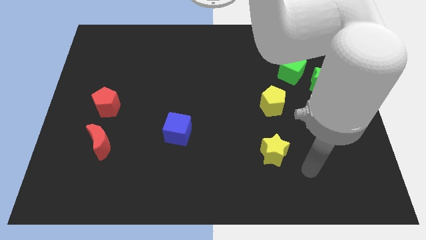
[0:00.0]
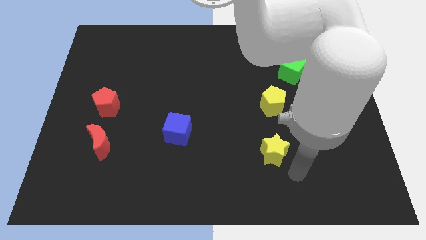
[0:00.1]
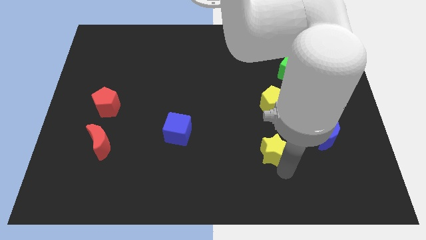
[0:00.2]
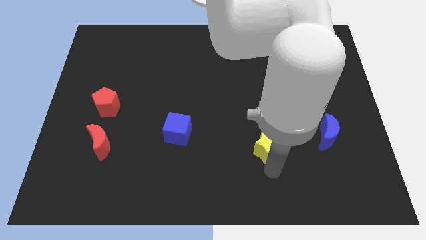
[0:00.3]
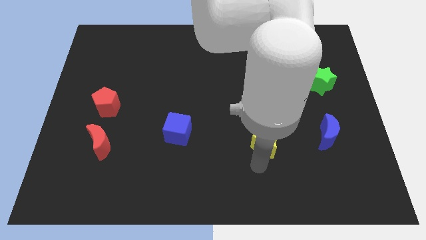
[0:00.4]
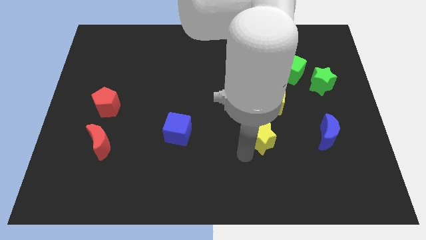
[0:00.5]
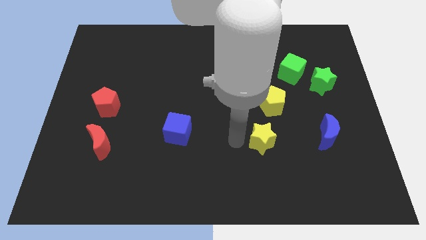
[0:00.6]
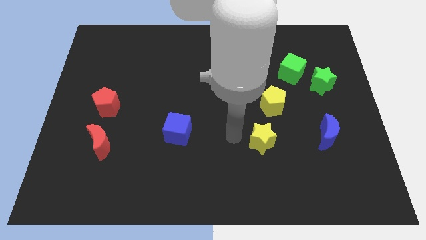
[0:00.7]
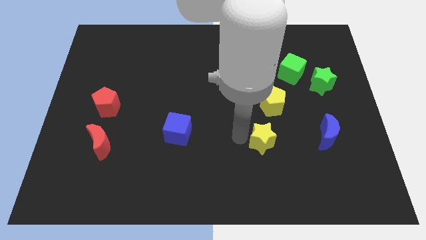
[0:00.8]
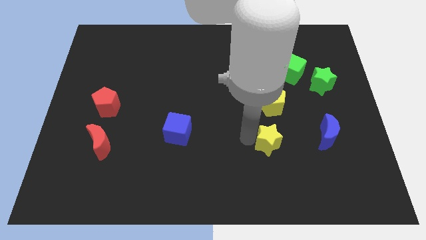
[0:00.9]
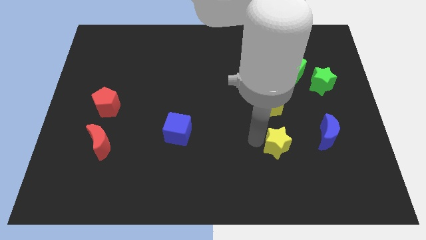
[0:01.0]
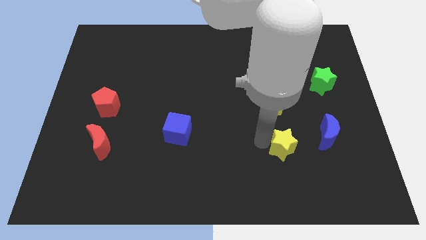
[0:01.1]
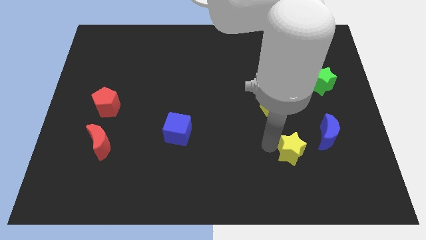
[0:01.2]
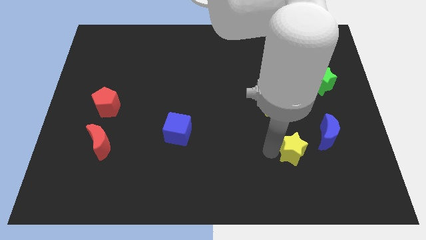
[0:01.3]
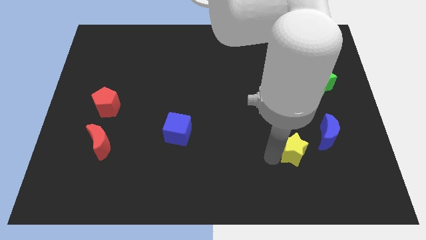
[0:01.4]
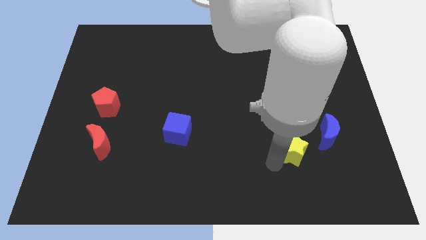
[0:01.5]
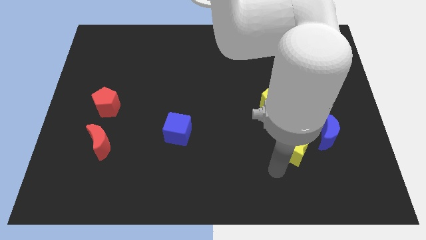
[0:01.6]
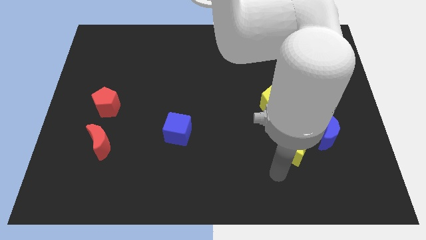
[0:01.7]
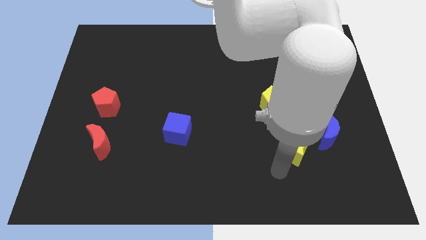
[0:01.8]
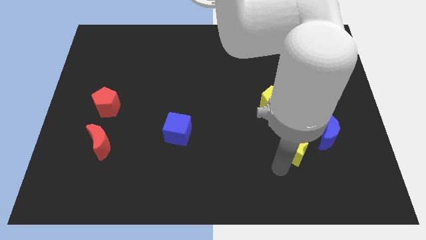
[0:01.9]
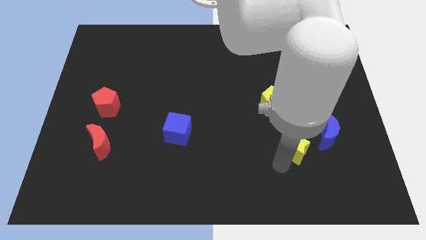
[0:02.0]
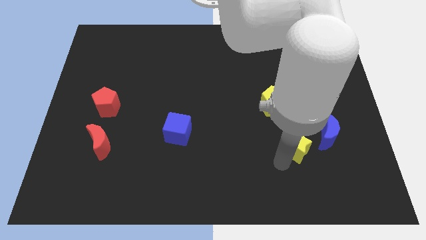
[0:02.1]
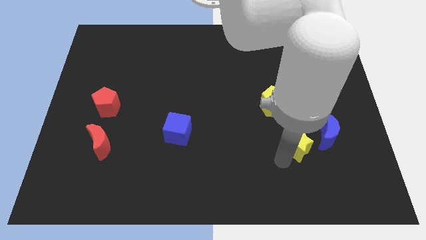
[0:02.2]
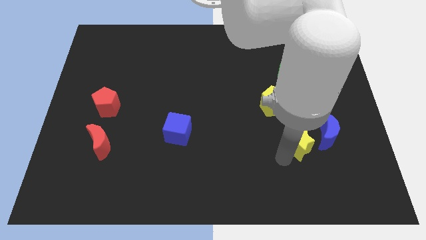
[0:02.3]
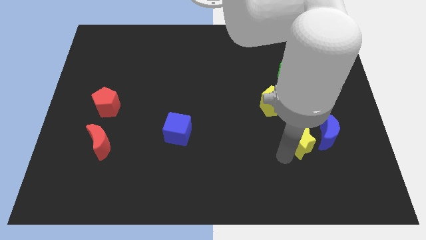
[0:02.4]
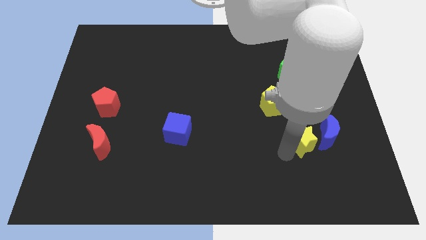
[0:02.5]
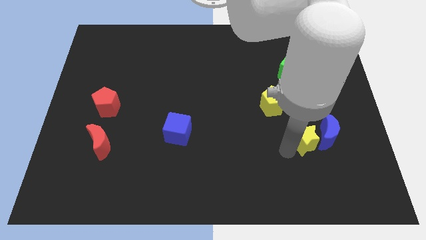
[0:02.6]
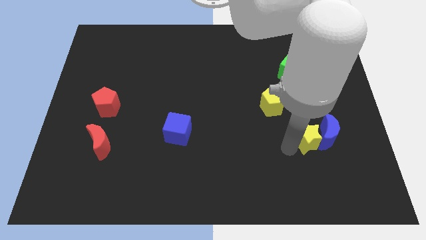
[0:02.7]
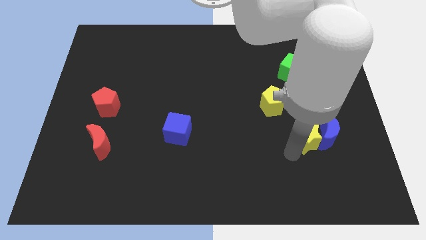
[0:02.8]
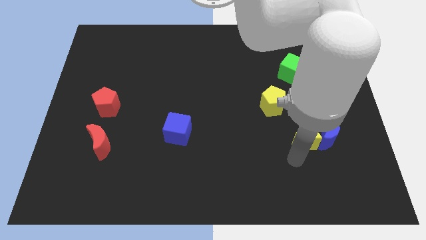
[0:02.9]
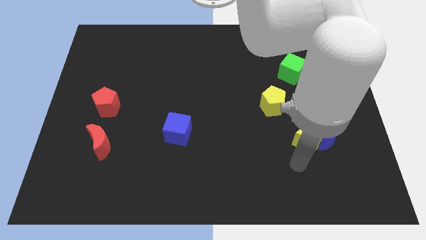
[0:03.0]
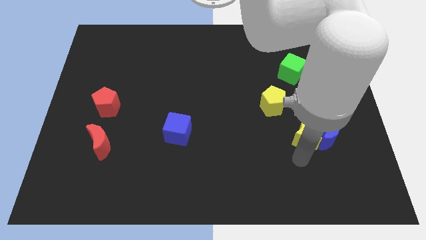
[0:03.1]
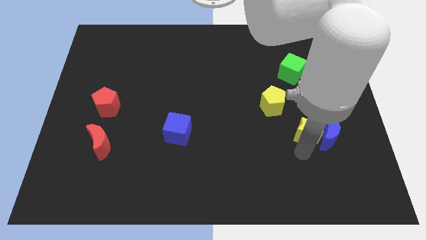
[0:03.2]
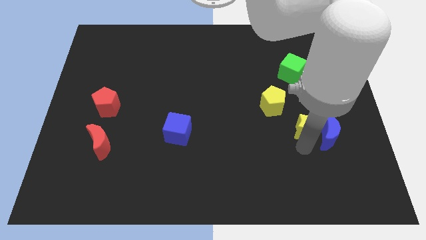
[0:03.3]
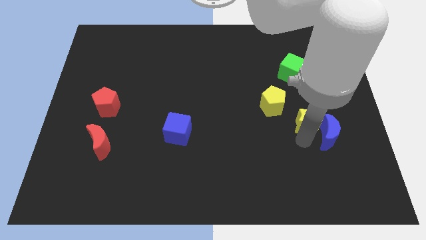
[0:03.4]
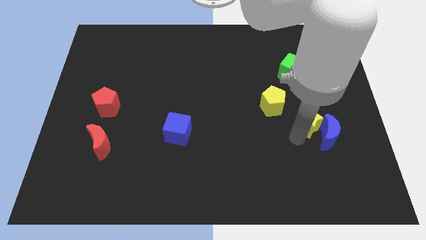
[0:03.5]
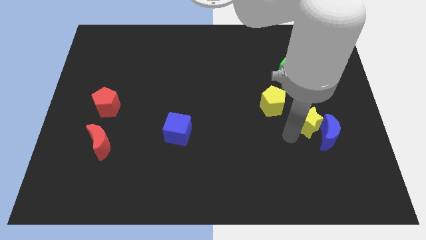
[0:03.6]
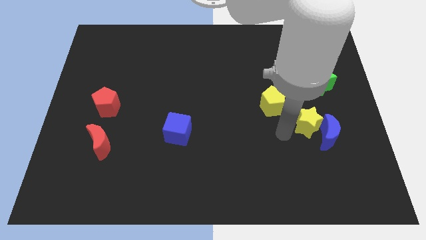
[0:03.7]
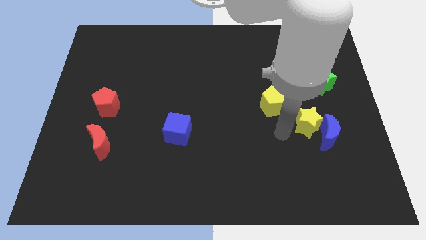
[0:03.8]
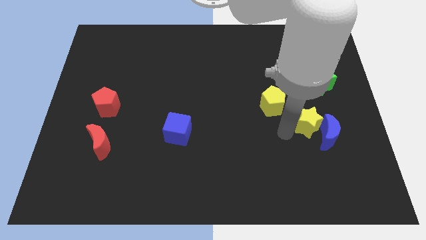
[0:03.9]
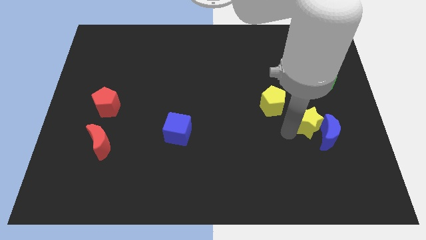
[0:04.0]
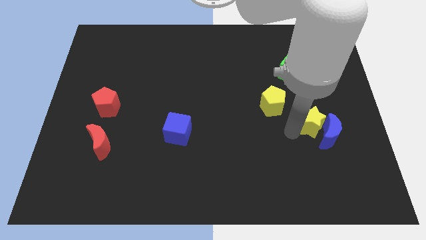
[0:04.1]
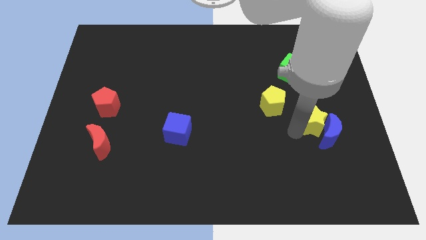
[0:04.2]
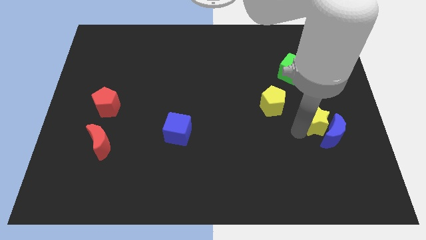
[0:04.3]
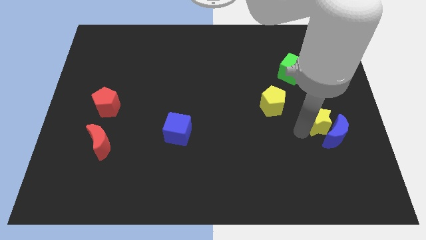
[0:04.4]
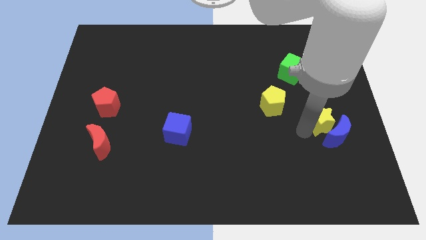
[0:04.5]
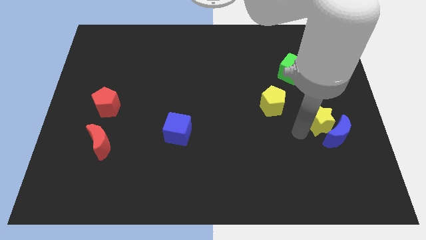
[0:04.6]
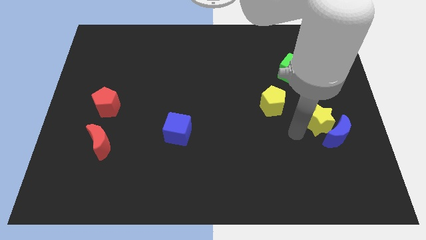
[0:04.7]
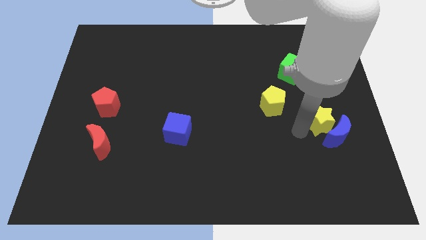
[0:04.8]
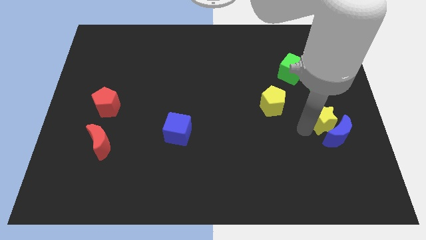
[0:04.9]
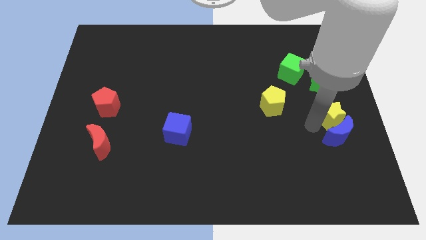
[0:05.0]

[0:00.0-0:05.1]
push the yellow star to the right side of the board

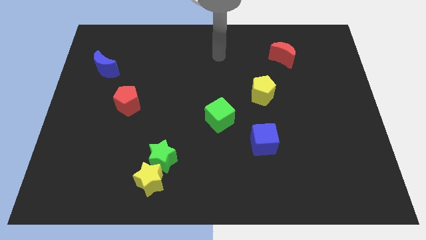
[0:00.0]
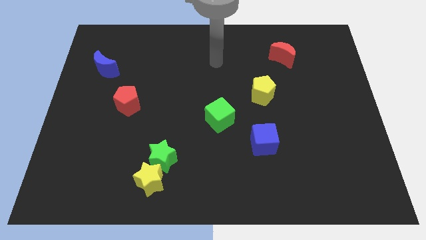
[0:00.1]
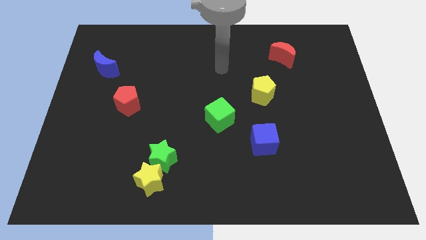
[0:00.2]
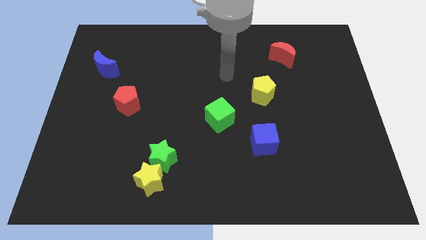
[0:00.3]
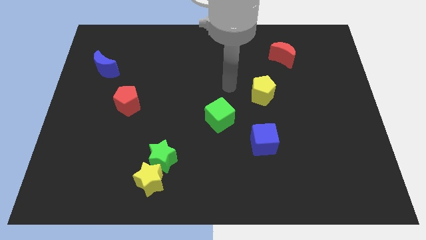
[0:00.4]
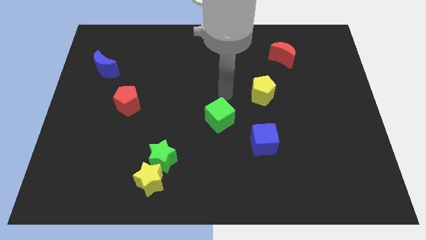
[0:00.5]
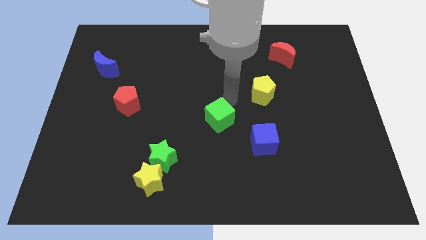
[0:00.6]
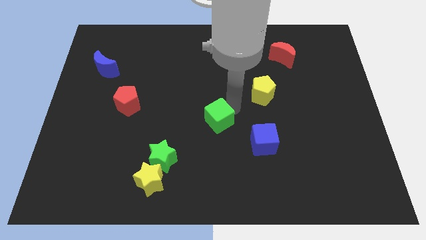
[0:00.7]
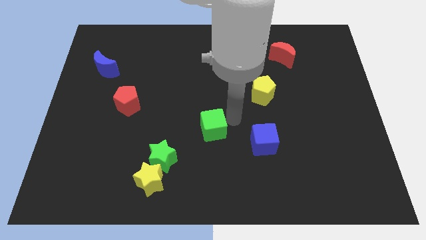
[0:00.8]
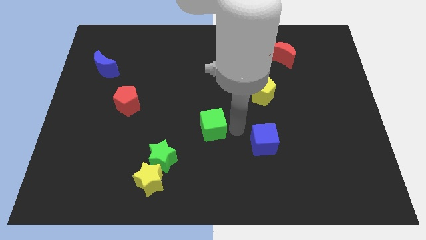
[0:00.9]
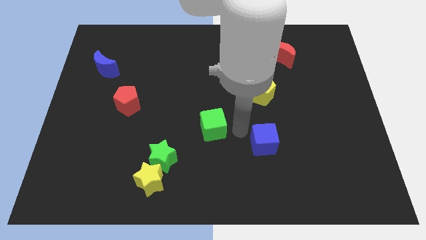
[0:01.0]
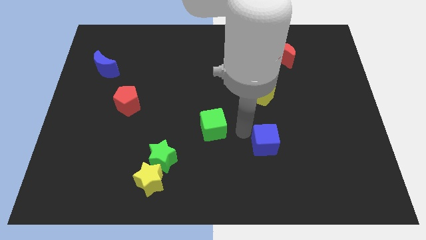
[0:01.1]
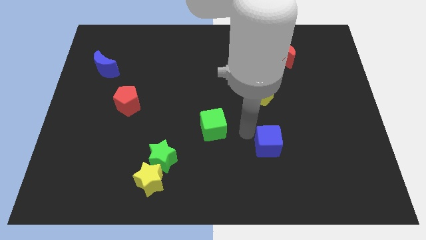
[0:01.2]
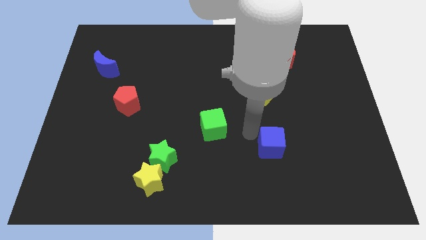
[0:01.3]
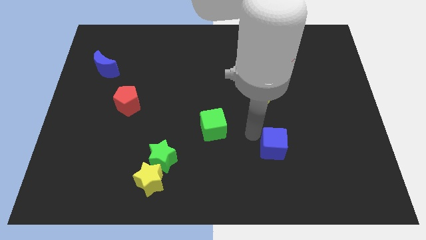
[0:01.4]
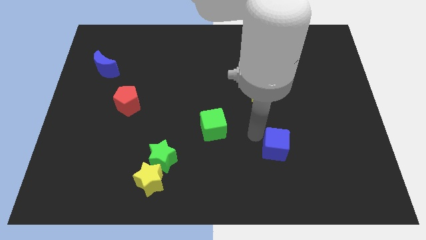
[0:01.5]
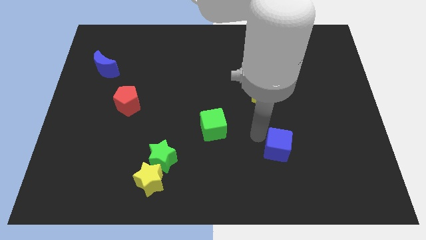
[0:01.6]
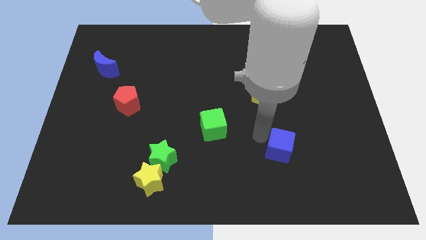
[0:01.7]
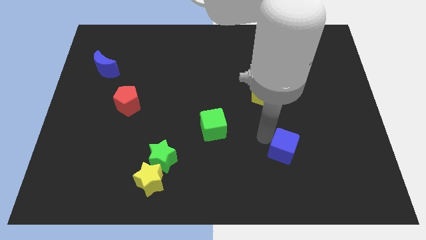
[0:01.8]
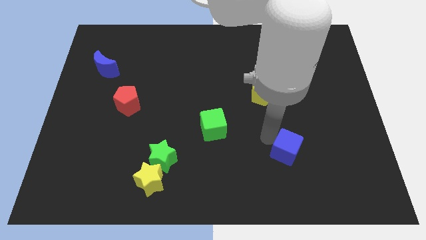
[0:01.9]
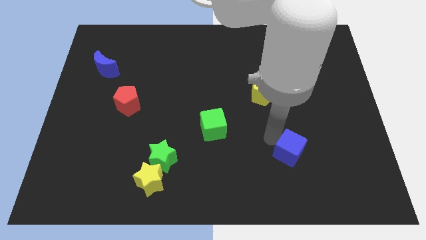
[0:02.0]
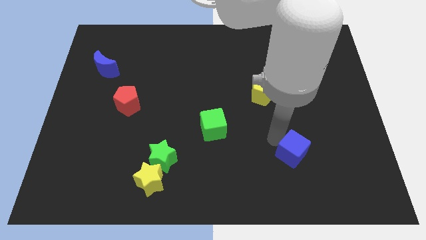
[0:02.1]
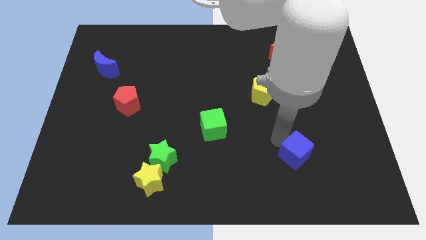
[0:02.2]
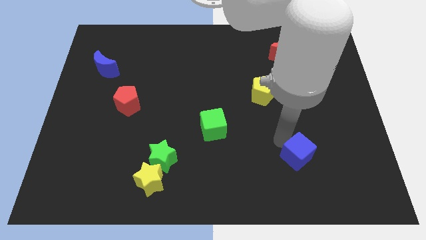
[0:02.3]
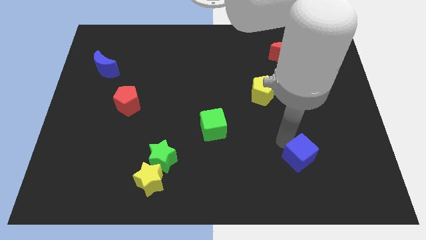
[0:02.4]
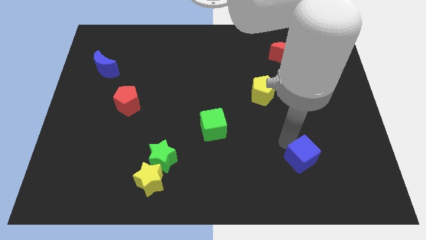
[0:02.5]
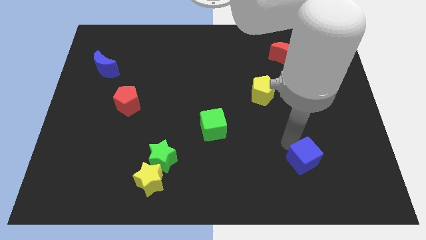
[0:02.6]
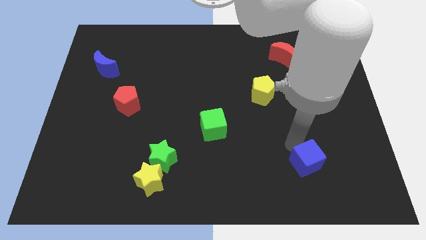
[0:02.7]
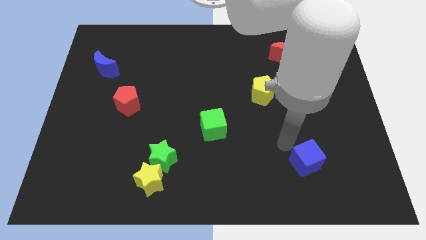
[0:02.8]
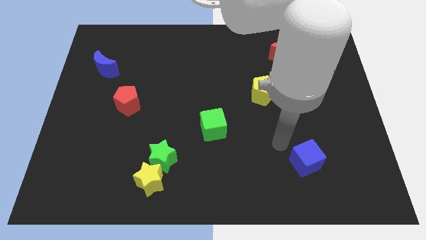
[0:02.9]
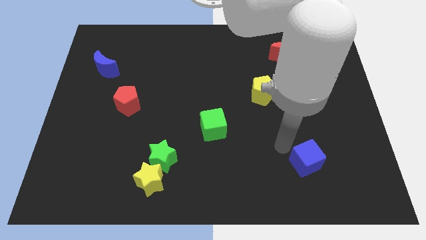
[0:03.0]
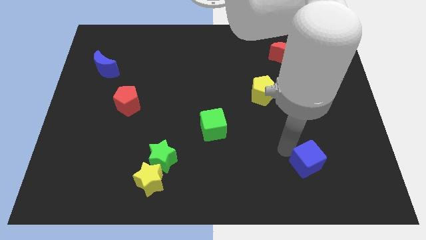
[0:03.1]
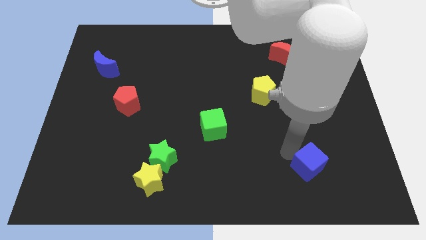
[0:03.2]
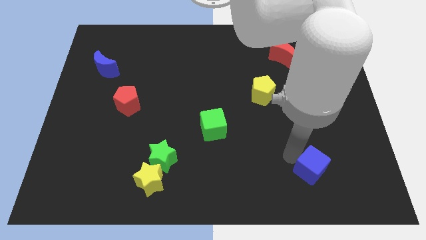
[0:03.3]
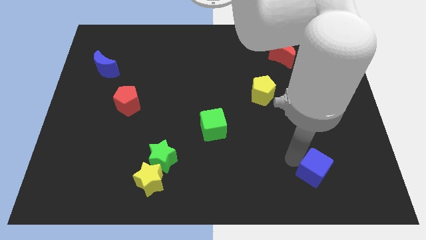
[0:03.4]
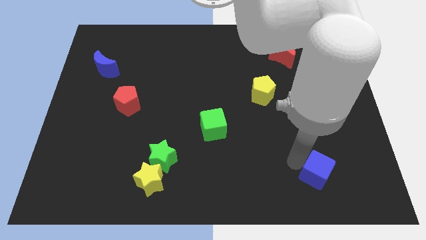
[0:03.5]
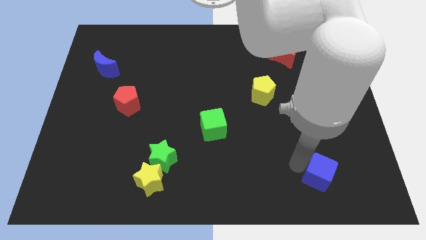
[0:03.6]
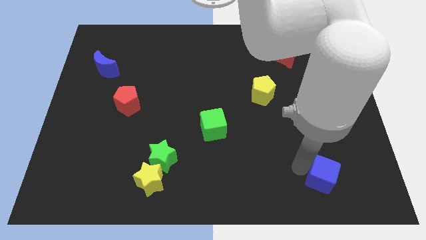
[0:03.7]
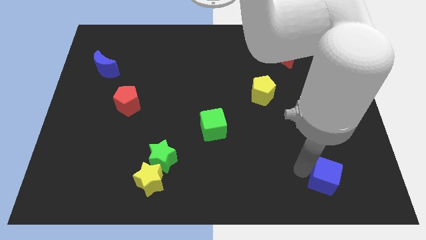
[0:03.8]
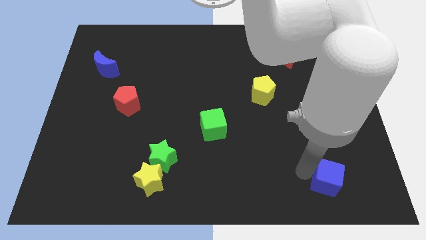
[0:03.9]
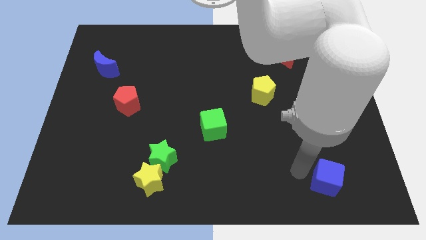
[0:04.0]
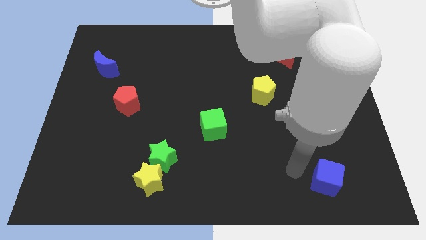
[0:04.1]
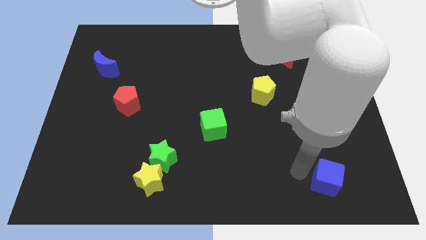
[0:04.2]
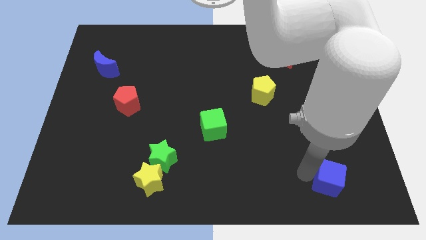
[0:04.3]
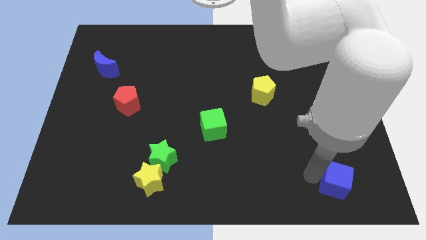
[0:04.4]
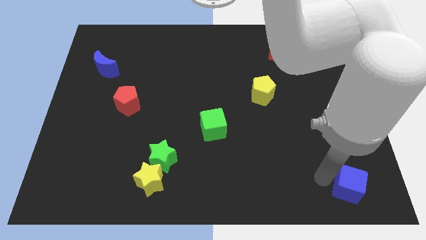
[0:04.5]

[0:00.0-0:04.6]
move the blue cube to the bottom right
